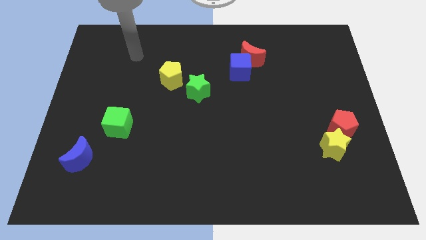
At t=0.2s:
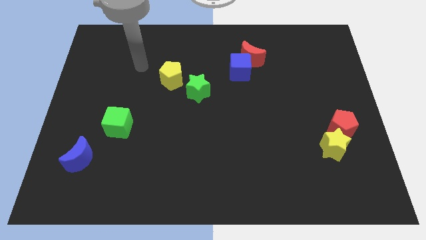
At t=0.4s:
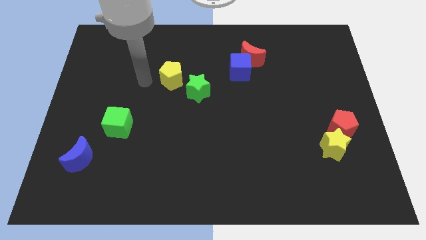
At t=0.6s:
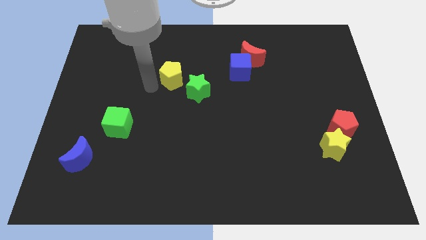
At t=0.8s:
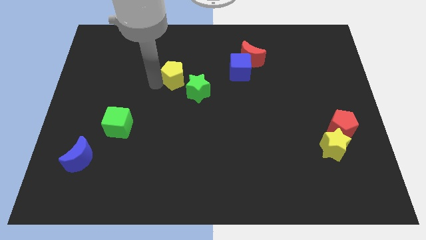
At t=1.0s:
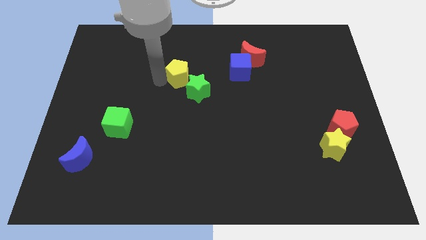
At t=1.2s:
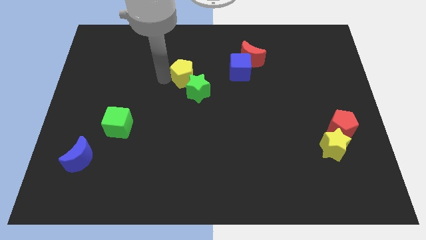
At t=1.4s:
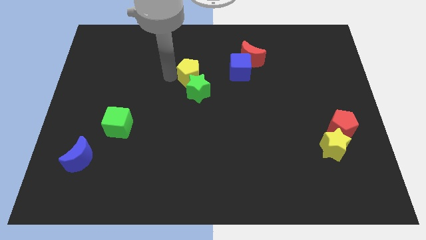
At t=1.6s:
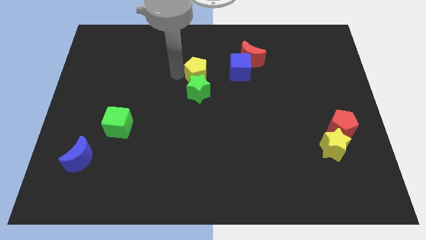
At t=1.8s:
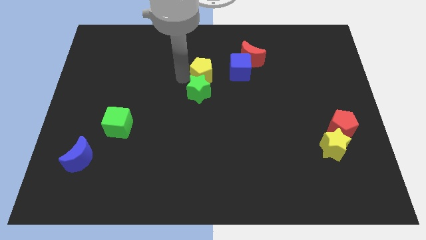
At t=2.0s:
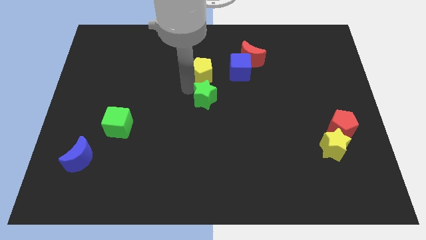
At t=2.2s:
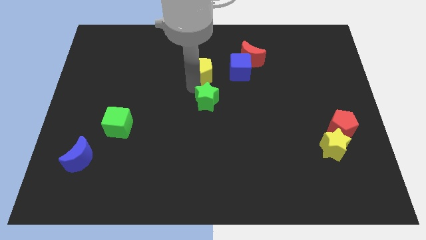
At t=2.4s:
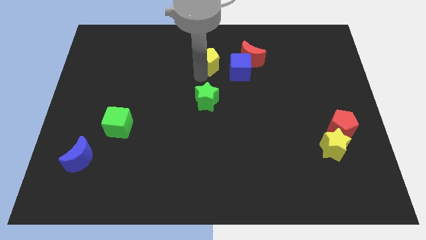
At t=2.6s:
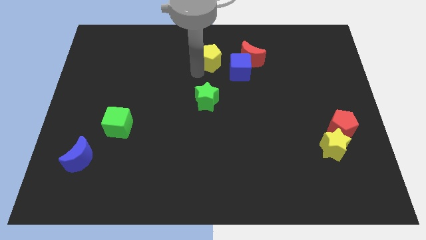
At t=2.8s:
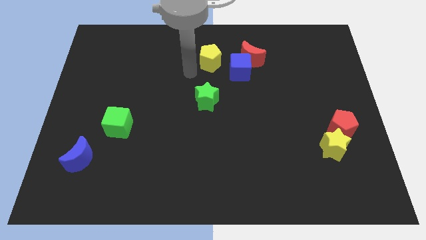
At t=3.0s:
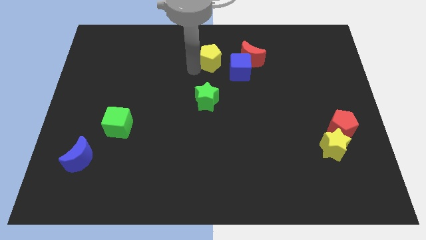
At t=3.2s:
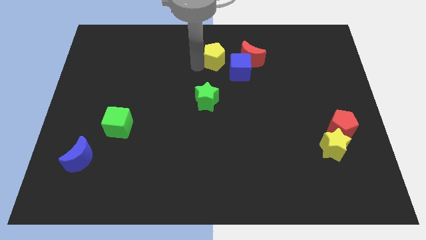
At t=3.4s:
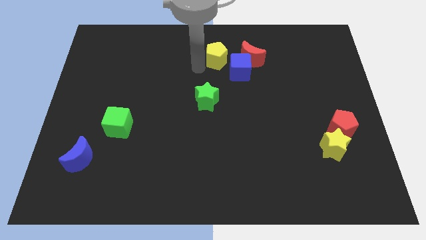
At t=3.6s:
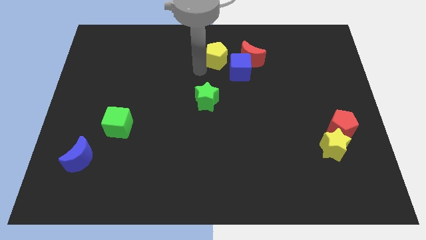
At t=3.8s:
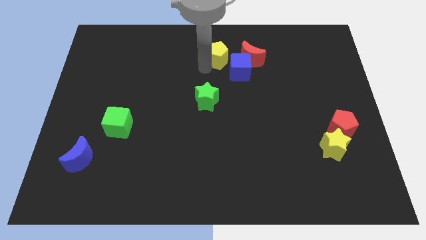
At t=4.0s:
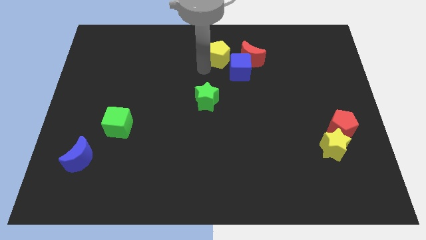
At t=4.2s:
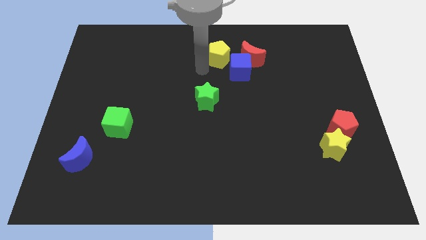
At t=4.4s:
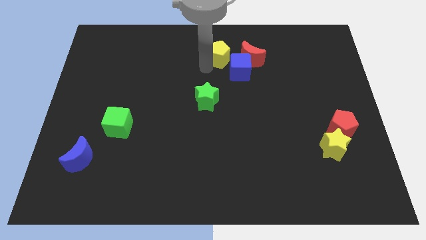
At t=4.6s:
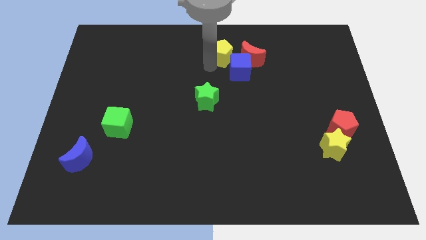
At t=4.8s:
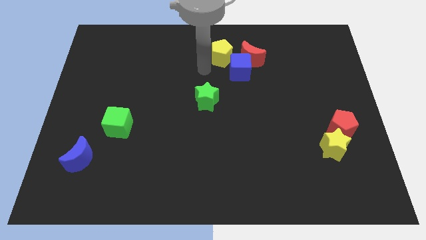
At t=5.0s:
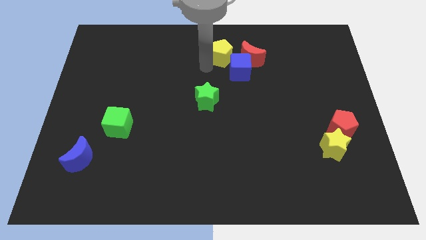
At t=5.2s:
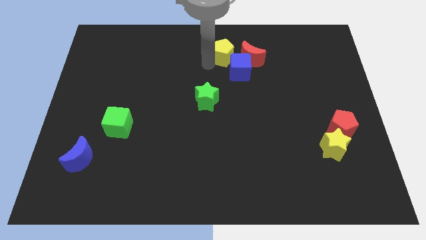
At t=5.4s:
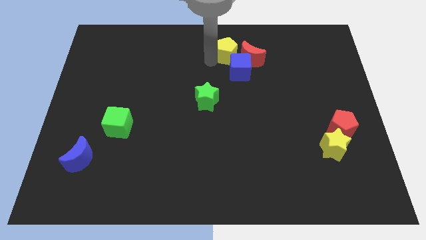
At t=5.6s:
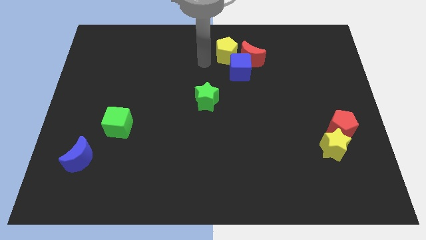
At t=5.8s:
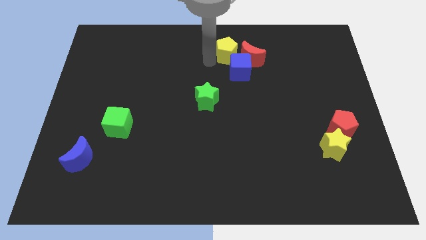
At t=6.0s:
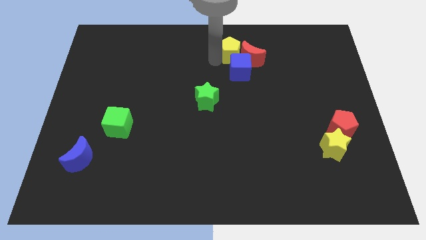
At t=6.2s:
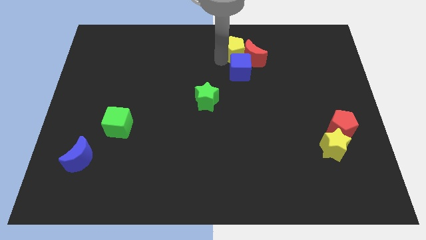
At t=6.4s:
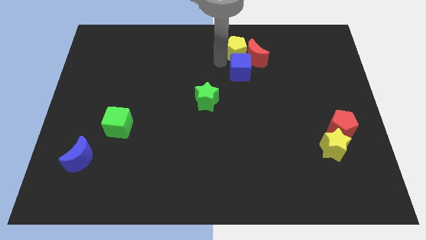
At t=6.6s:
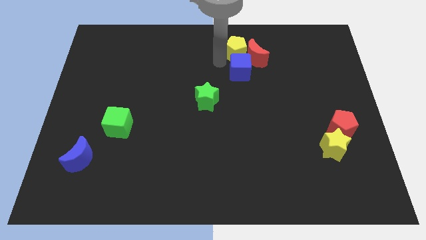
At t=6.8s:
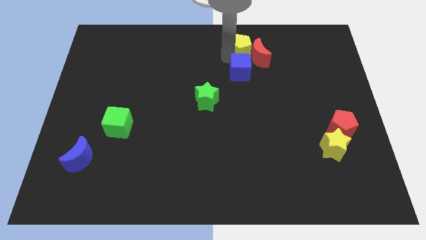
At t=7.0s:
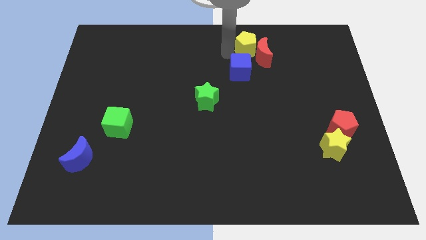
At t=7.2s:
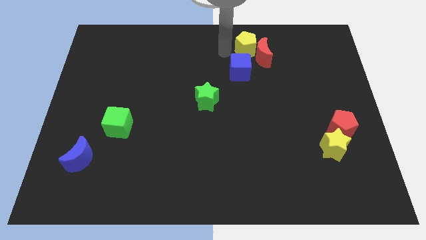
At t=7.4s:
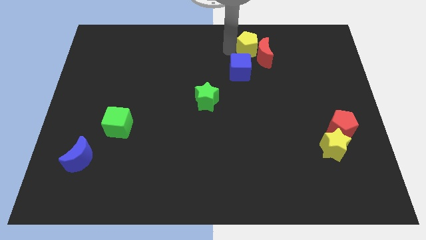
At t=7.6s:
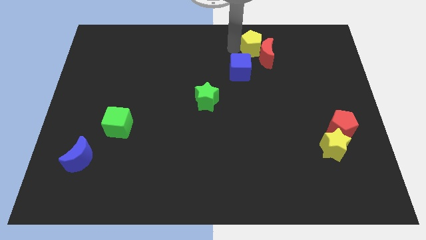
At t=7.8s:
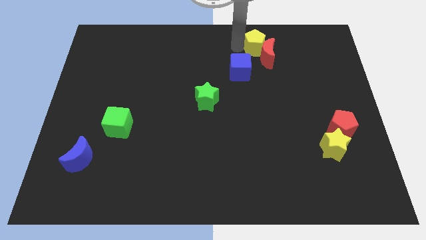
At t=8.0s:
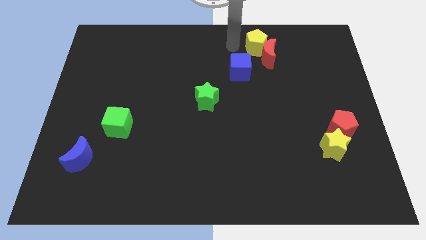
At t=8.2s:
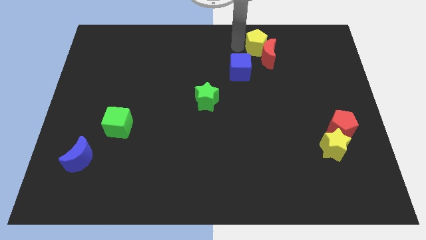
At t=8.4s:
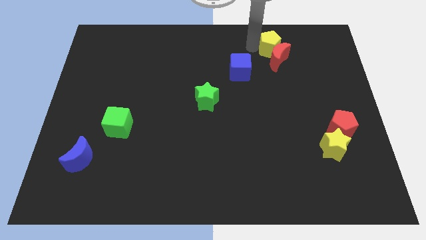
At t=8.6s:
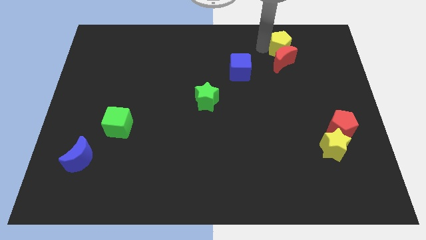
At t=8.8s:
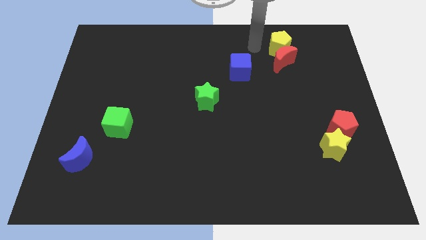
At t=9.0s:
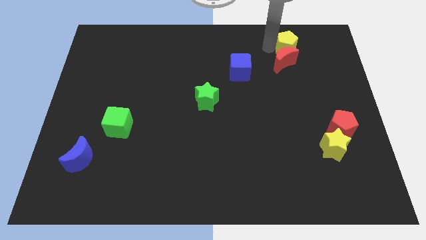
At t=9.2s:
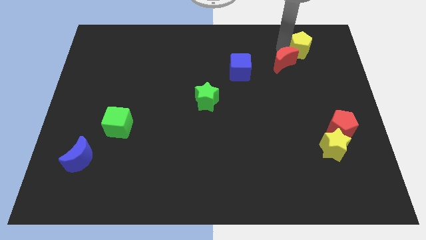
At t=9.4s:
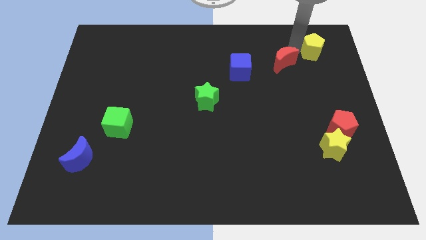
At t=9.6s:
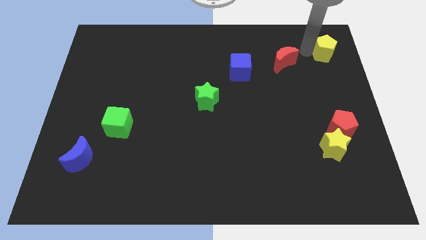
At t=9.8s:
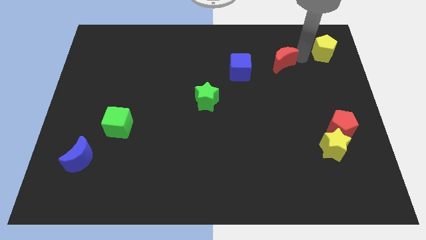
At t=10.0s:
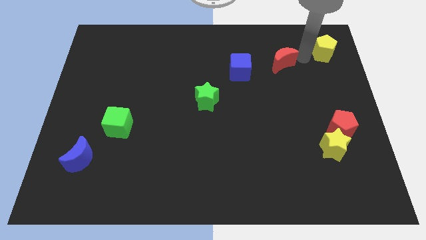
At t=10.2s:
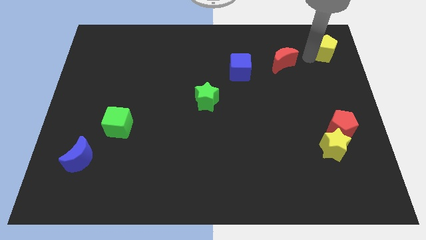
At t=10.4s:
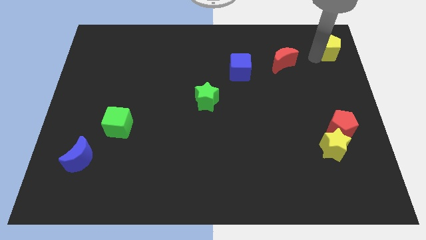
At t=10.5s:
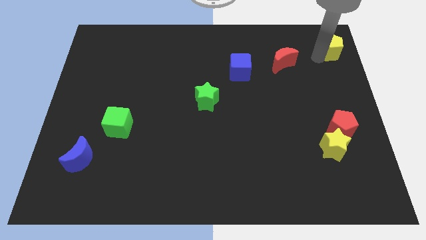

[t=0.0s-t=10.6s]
put the yellow pentagon to the upper right corner

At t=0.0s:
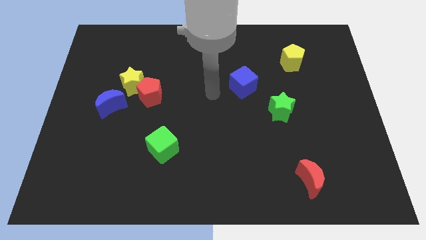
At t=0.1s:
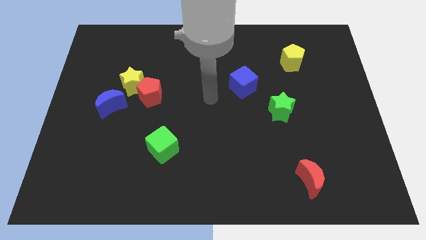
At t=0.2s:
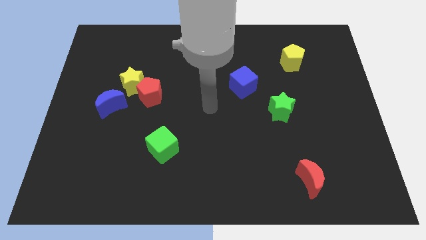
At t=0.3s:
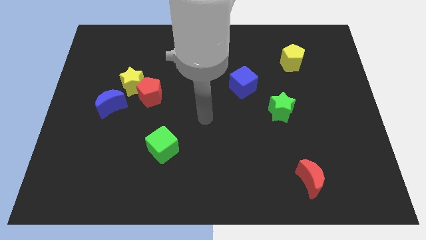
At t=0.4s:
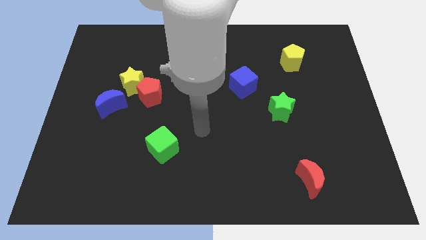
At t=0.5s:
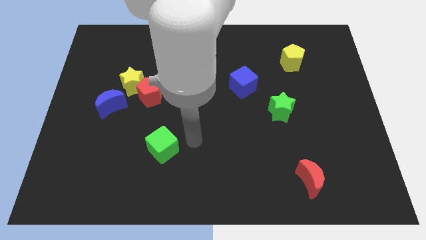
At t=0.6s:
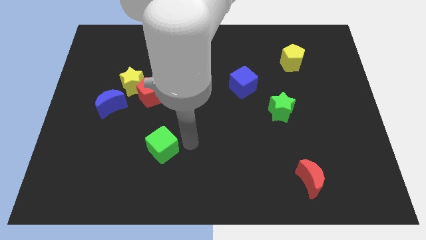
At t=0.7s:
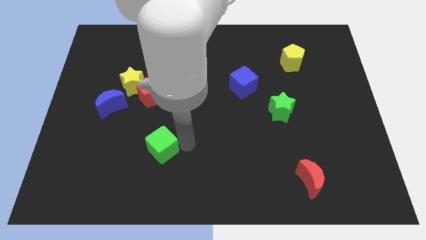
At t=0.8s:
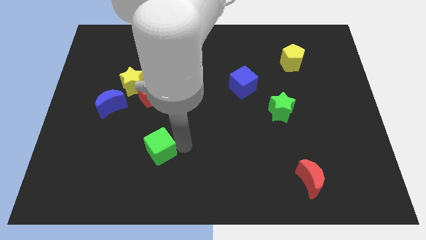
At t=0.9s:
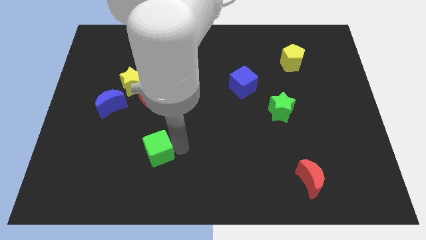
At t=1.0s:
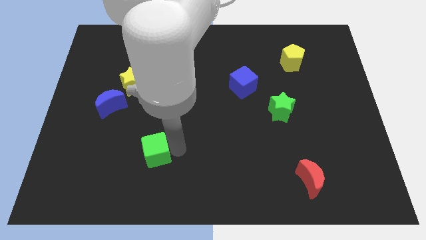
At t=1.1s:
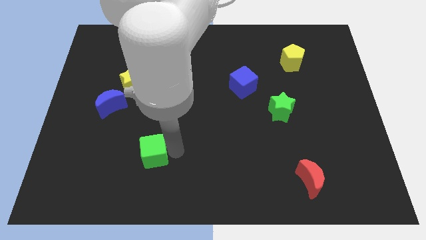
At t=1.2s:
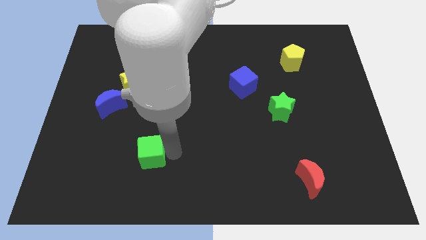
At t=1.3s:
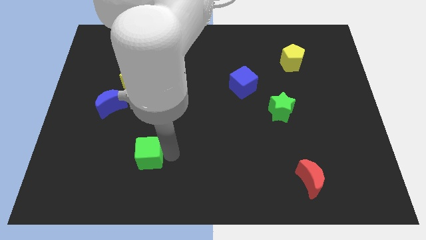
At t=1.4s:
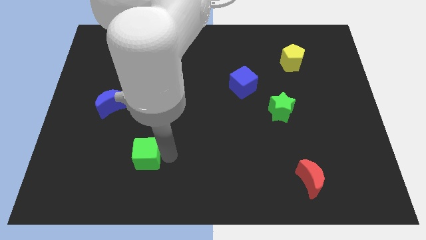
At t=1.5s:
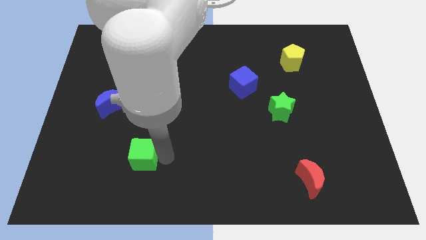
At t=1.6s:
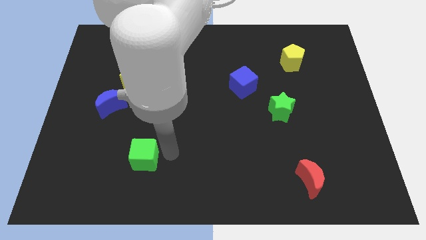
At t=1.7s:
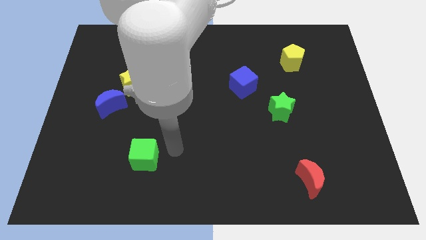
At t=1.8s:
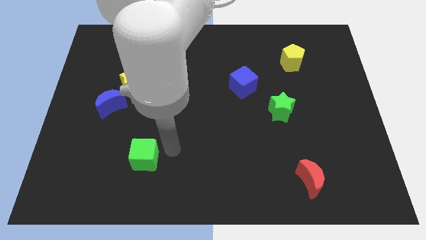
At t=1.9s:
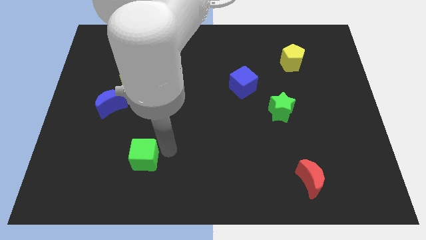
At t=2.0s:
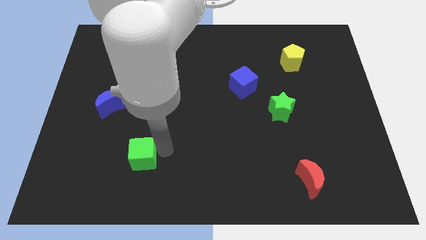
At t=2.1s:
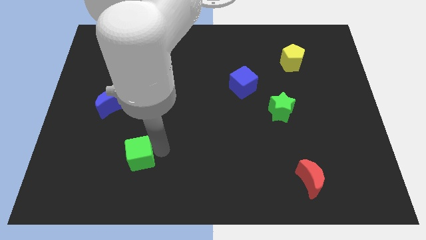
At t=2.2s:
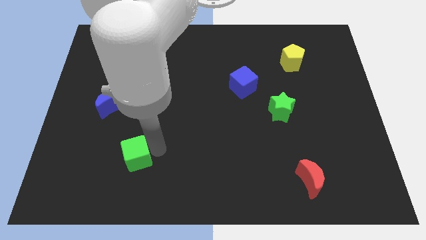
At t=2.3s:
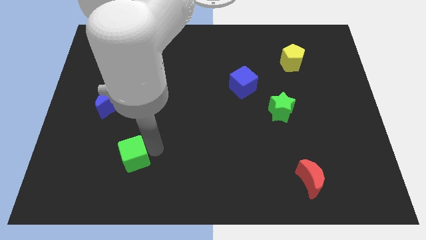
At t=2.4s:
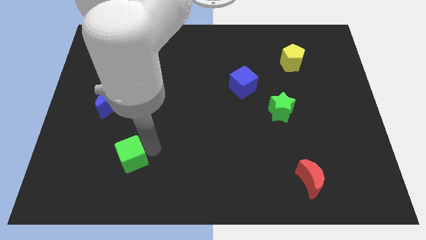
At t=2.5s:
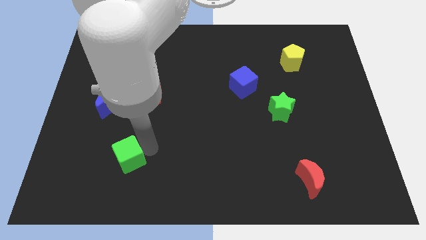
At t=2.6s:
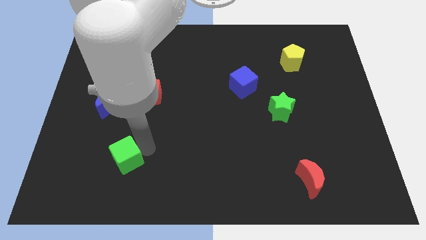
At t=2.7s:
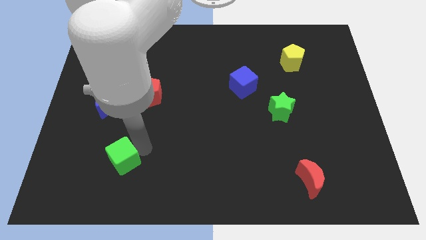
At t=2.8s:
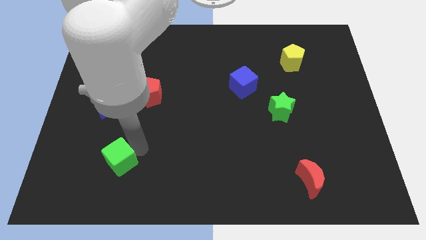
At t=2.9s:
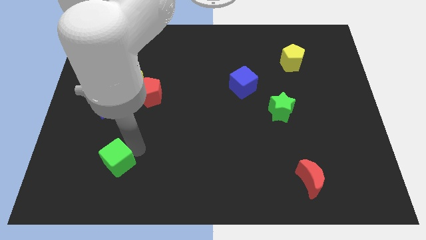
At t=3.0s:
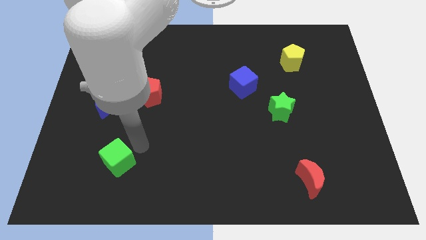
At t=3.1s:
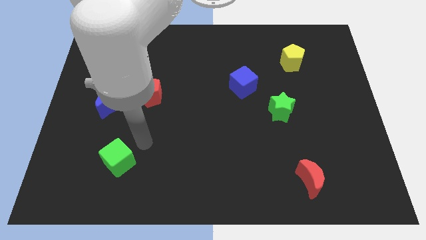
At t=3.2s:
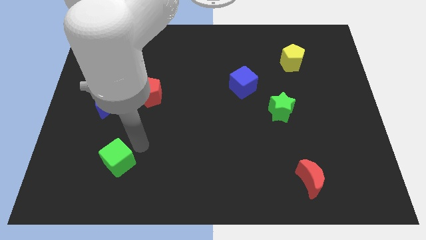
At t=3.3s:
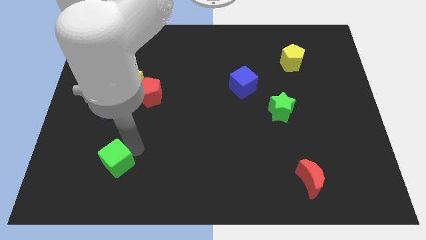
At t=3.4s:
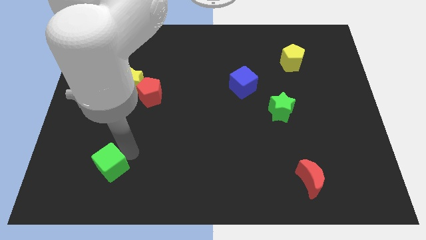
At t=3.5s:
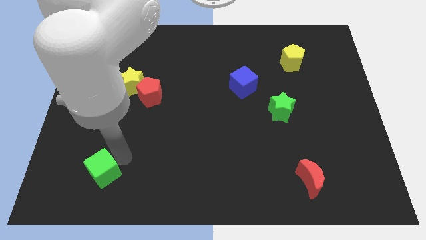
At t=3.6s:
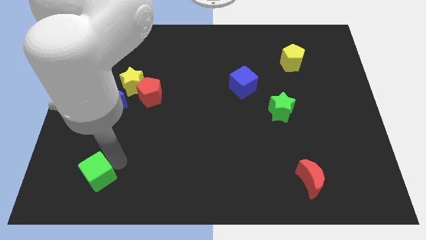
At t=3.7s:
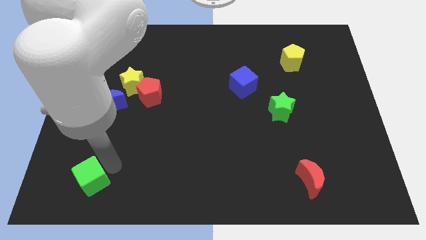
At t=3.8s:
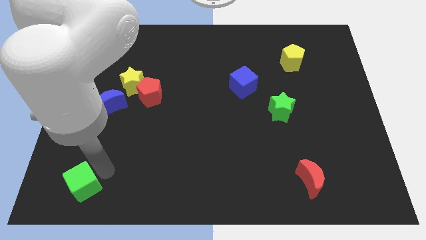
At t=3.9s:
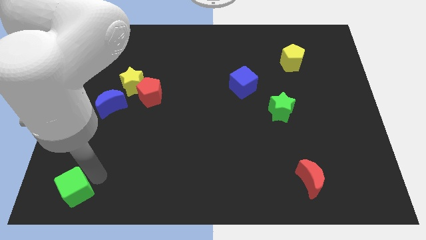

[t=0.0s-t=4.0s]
put the green cube to the bottom left
